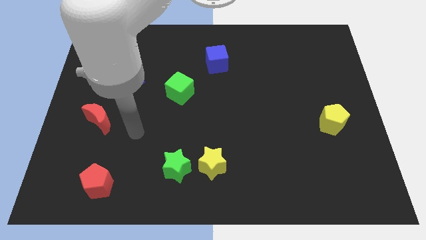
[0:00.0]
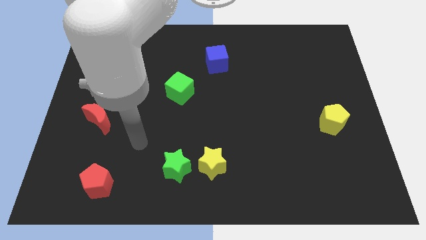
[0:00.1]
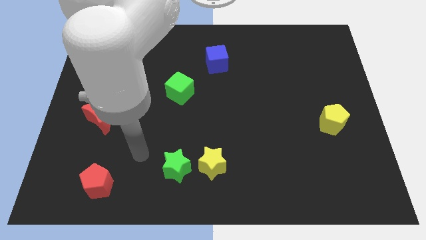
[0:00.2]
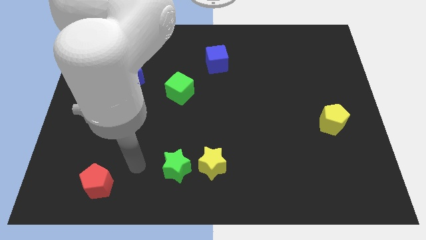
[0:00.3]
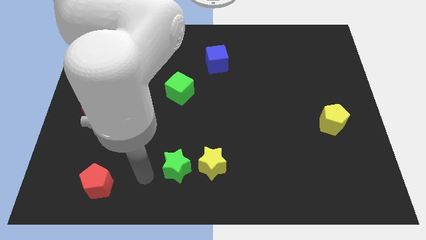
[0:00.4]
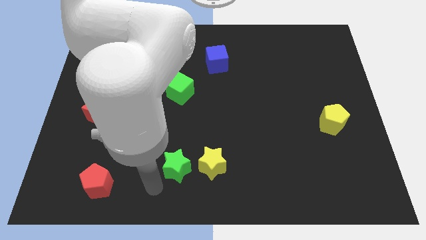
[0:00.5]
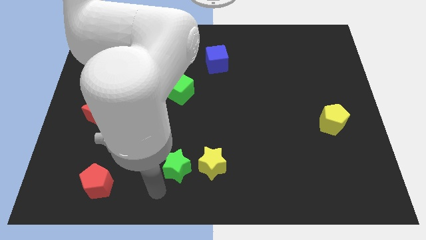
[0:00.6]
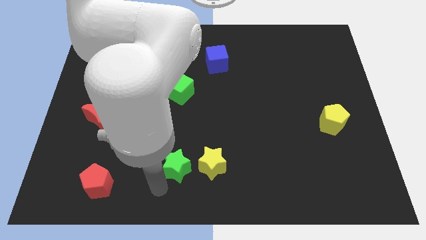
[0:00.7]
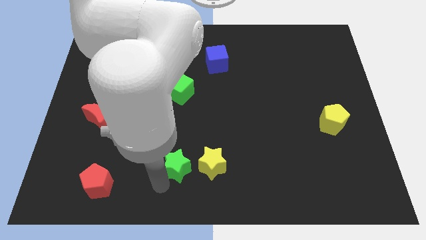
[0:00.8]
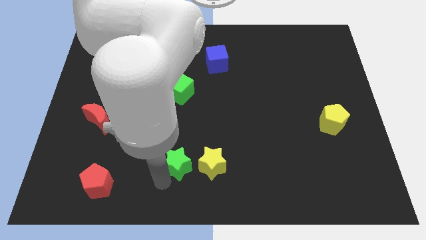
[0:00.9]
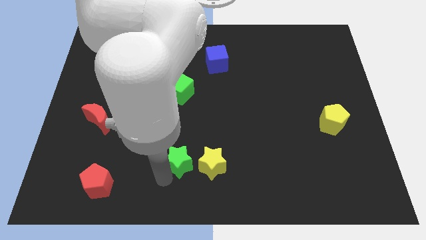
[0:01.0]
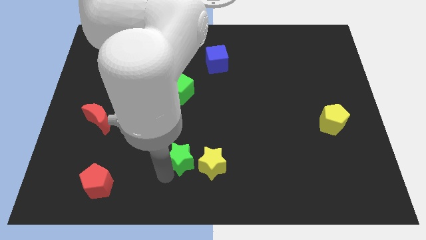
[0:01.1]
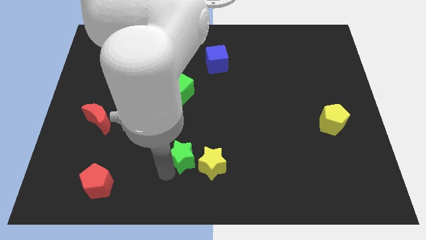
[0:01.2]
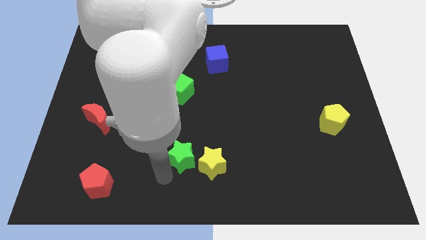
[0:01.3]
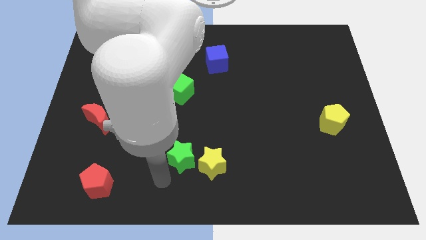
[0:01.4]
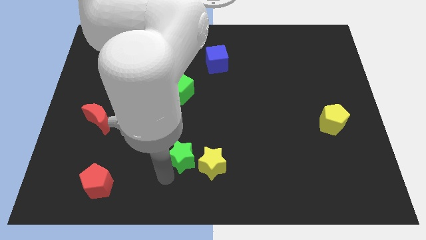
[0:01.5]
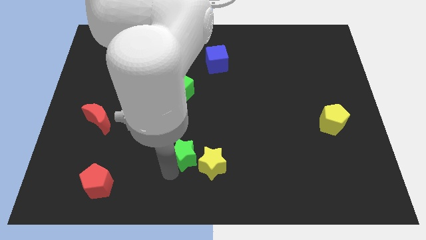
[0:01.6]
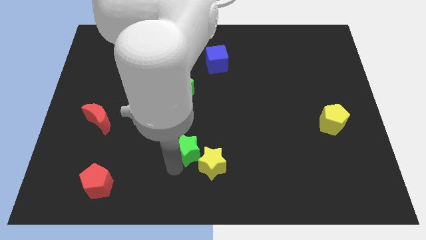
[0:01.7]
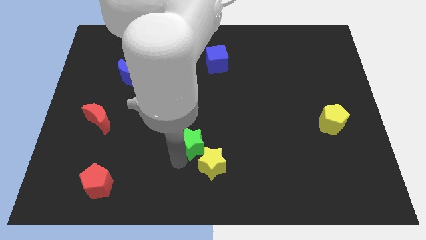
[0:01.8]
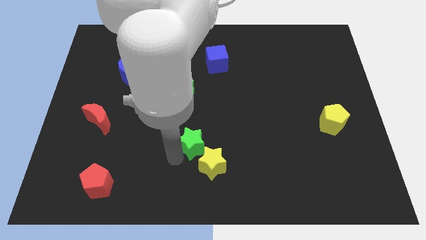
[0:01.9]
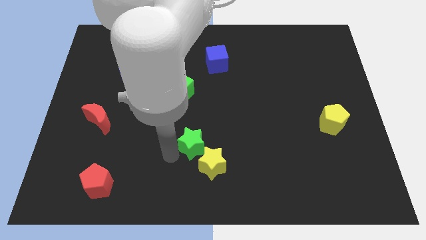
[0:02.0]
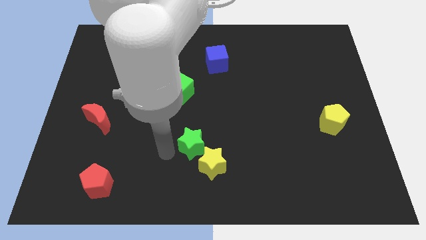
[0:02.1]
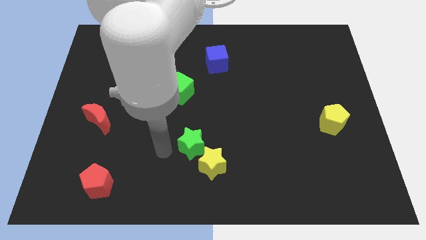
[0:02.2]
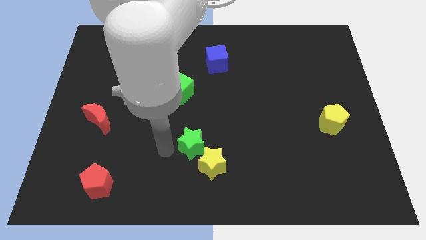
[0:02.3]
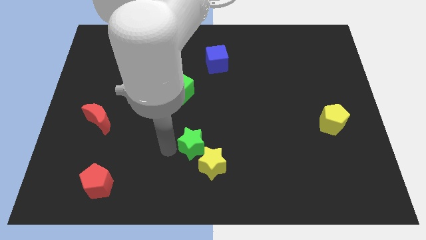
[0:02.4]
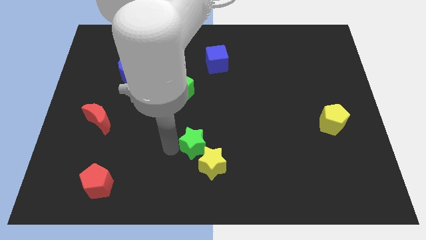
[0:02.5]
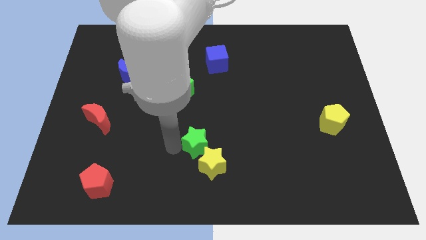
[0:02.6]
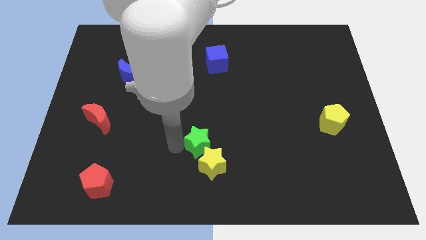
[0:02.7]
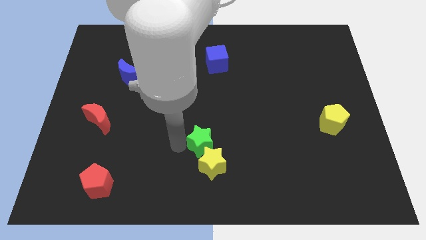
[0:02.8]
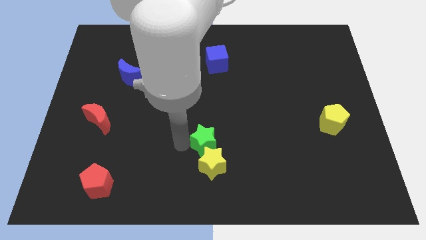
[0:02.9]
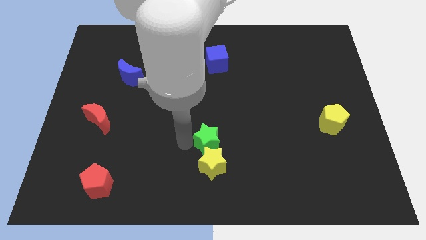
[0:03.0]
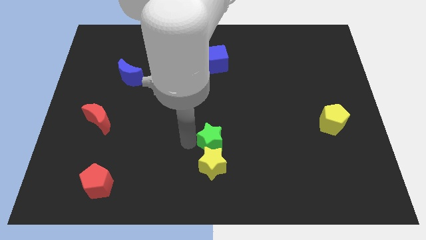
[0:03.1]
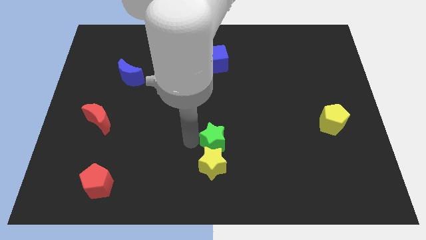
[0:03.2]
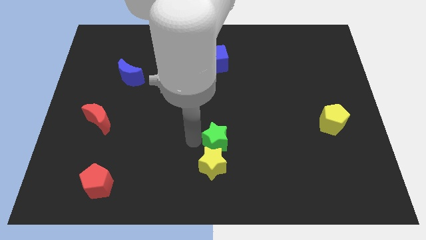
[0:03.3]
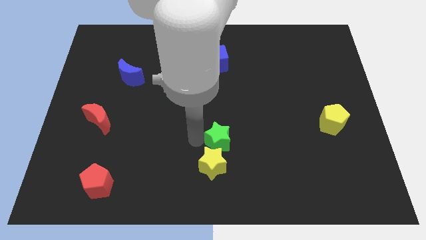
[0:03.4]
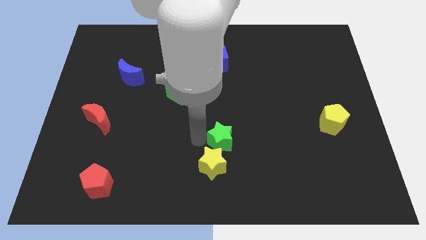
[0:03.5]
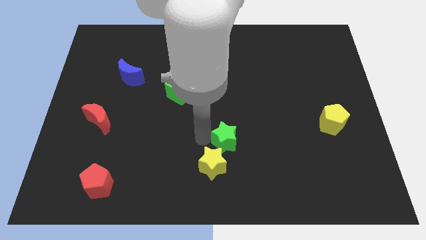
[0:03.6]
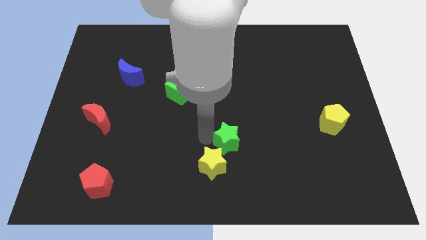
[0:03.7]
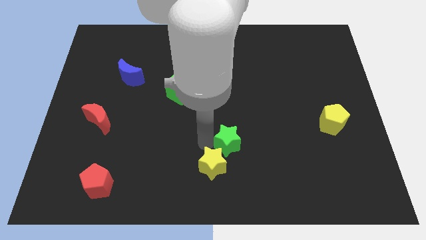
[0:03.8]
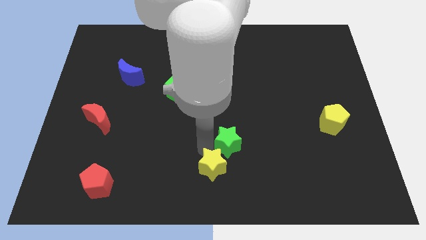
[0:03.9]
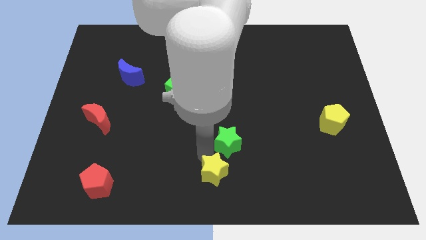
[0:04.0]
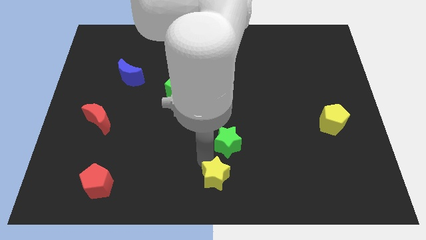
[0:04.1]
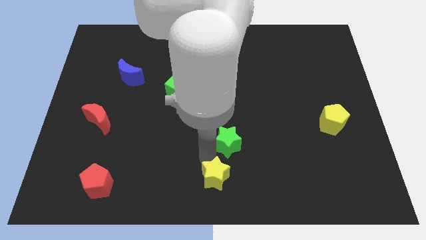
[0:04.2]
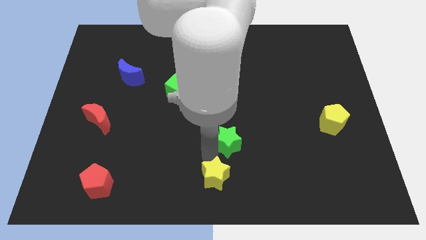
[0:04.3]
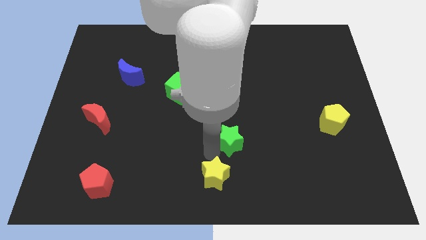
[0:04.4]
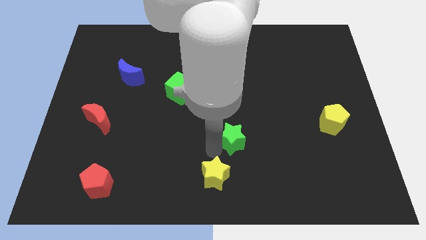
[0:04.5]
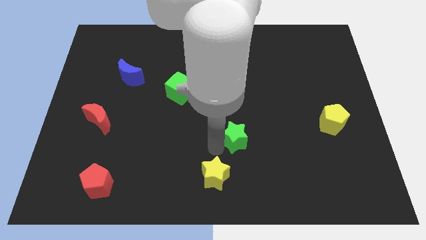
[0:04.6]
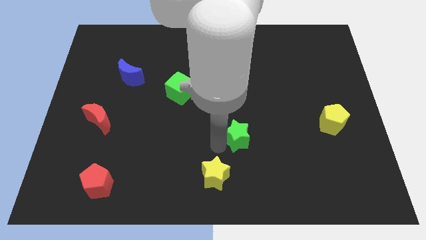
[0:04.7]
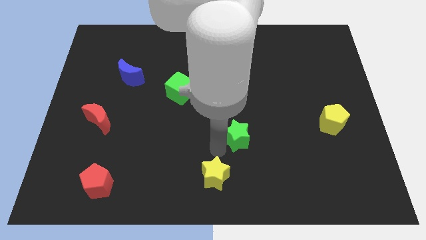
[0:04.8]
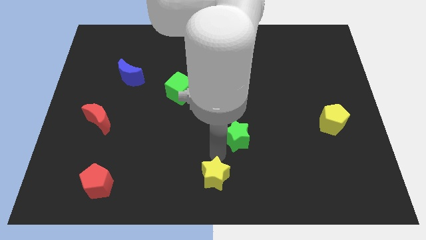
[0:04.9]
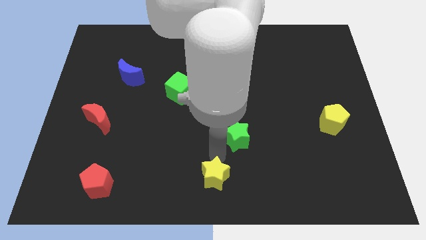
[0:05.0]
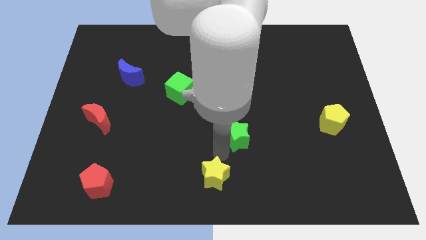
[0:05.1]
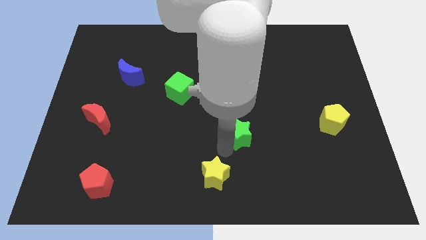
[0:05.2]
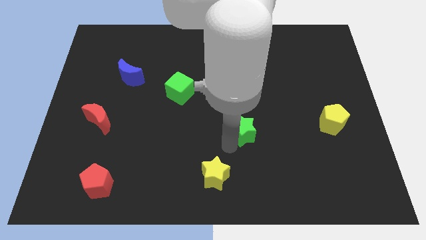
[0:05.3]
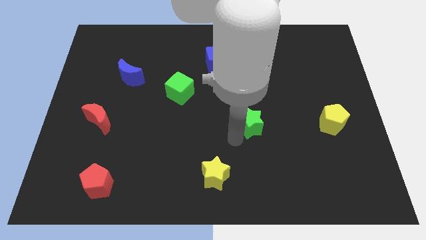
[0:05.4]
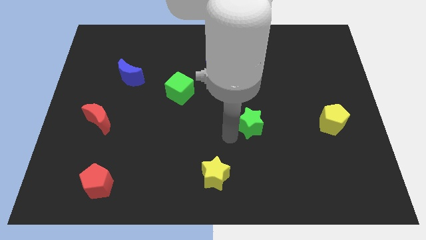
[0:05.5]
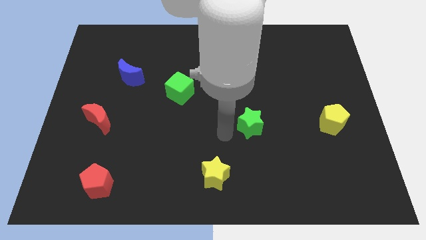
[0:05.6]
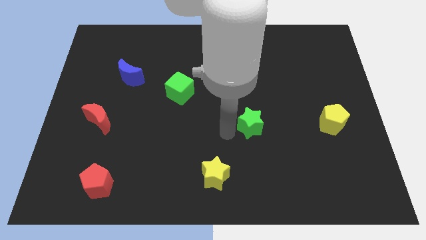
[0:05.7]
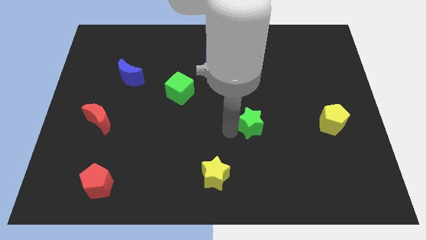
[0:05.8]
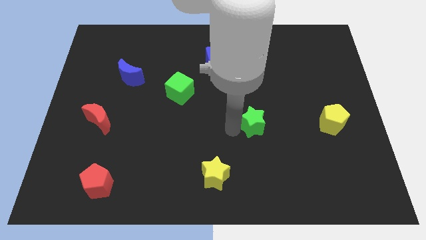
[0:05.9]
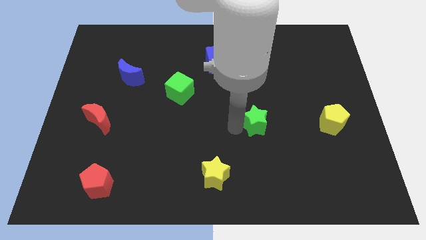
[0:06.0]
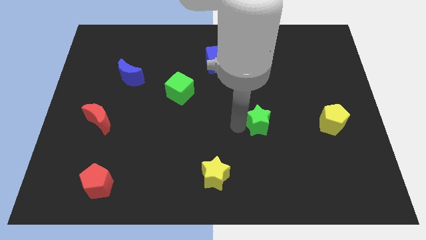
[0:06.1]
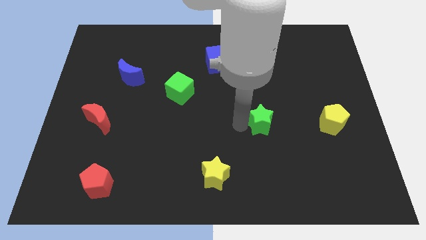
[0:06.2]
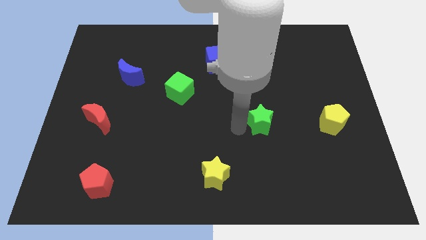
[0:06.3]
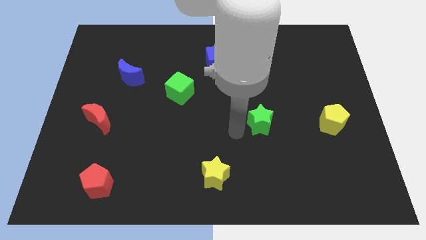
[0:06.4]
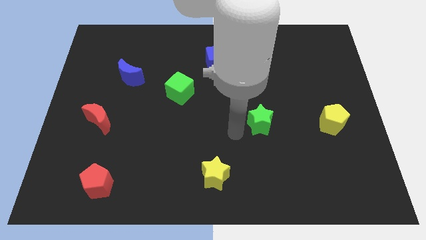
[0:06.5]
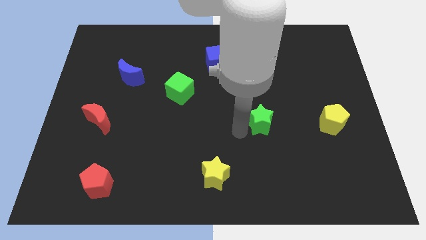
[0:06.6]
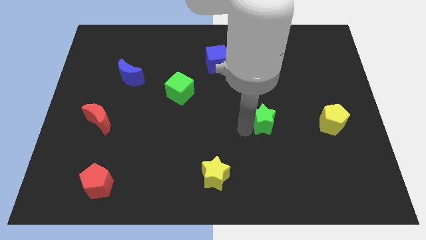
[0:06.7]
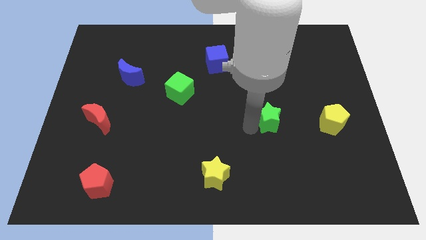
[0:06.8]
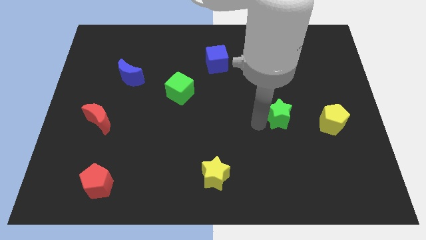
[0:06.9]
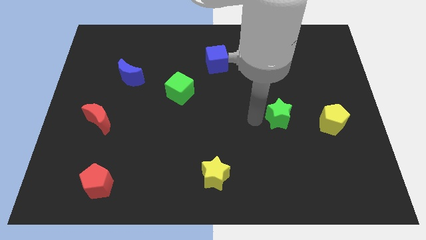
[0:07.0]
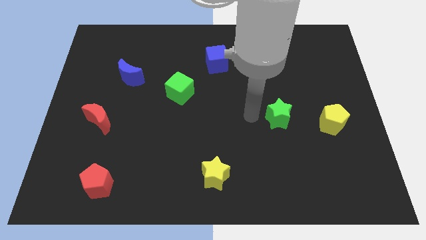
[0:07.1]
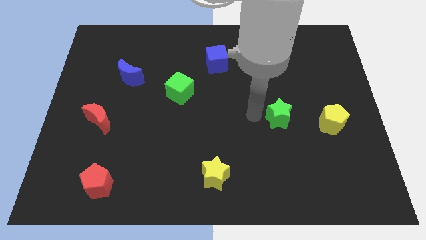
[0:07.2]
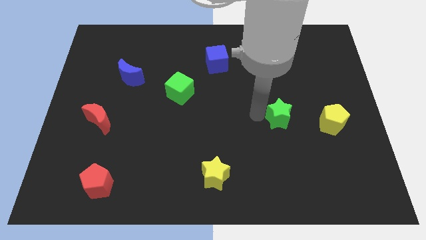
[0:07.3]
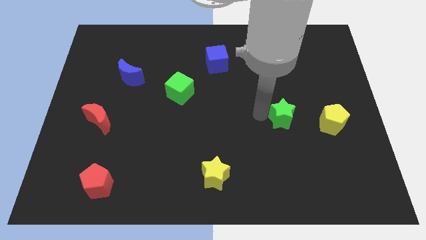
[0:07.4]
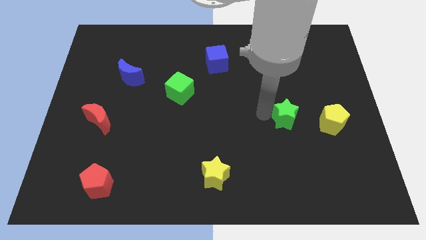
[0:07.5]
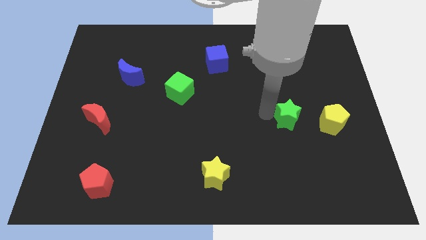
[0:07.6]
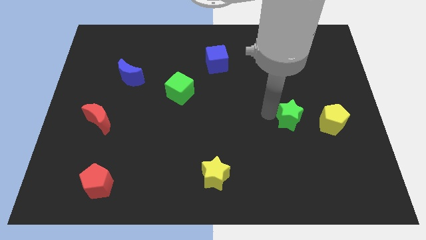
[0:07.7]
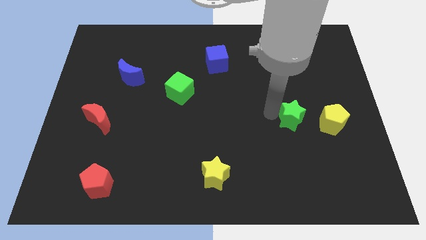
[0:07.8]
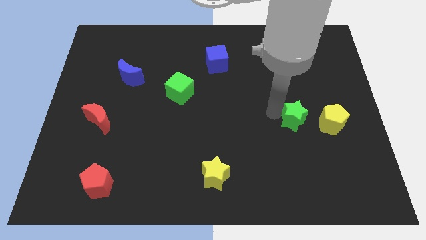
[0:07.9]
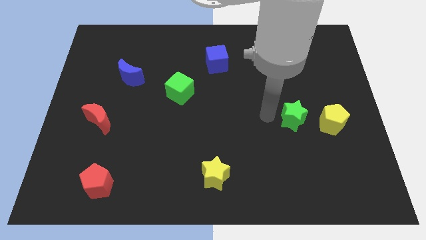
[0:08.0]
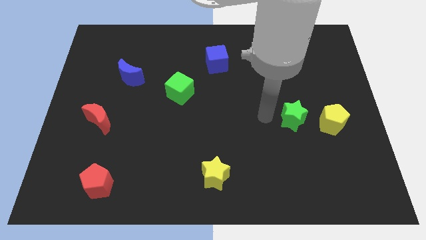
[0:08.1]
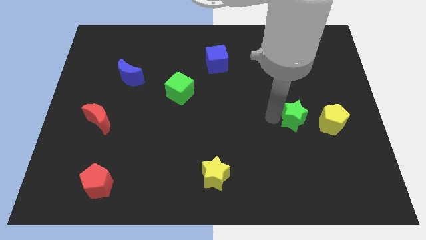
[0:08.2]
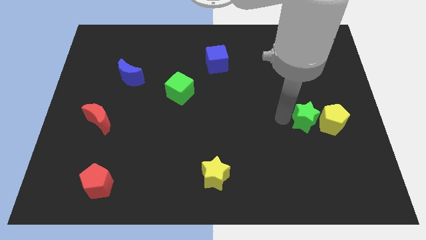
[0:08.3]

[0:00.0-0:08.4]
move the green star next to the yellow pentagon
